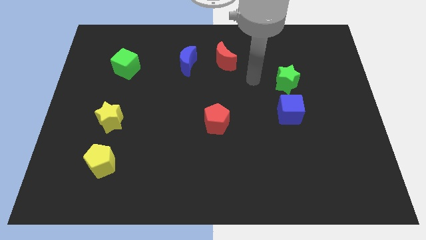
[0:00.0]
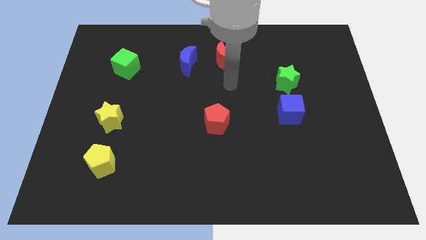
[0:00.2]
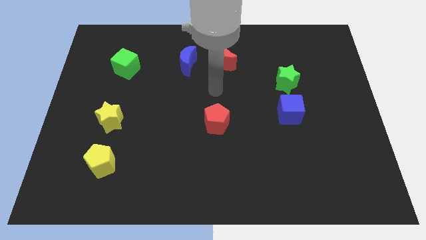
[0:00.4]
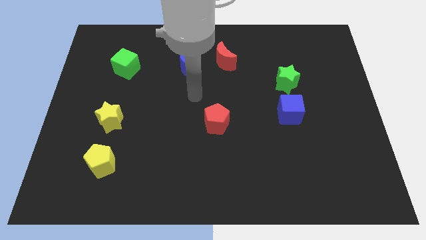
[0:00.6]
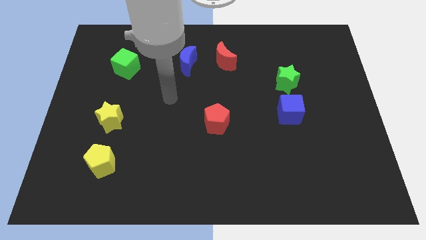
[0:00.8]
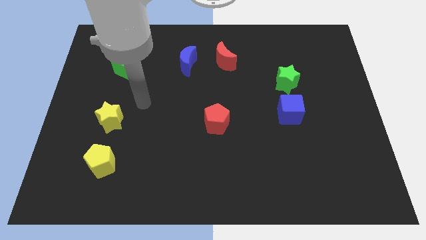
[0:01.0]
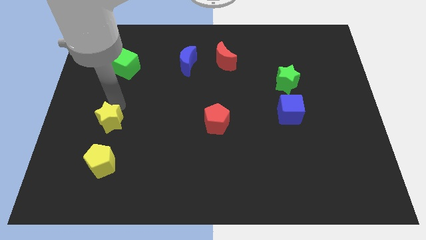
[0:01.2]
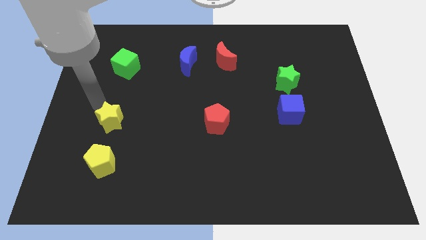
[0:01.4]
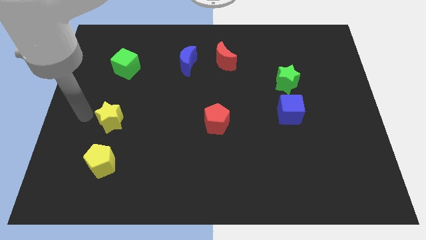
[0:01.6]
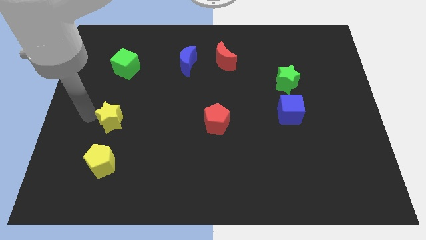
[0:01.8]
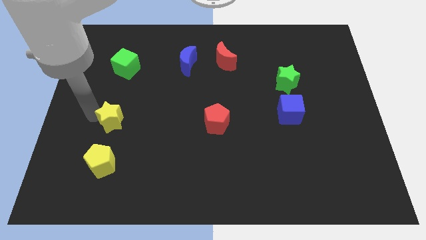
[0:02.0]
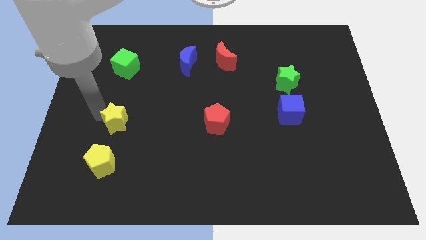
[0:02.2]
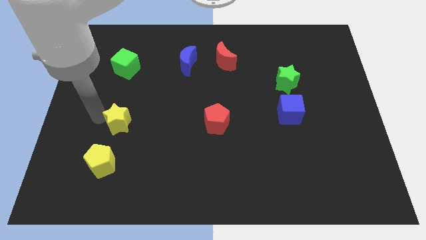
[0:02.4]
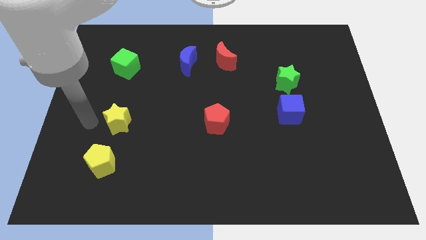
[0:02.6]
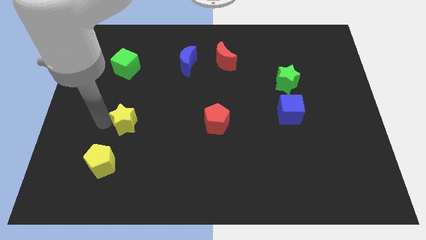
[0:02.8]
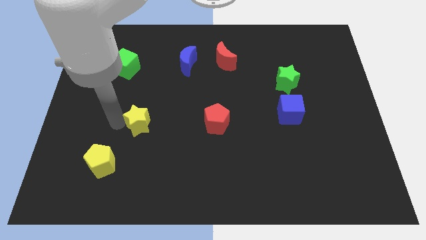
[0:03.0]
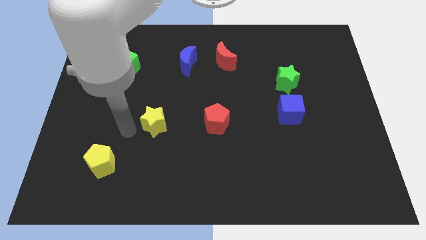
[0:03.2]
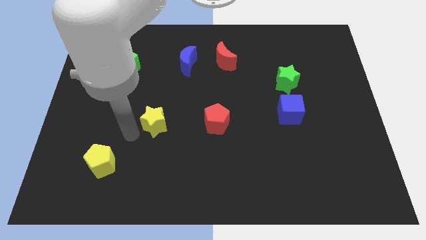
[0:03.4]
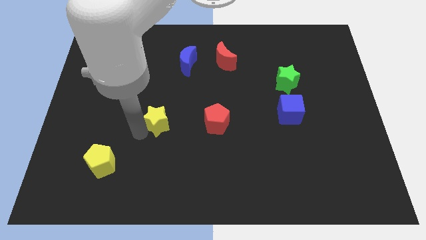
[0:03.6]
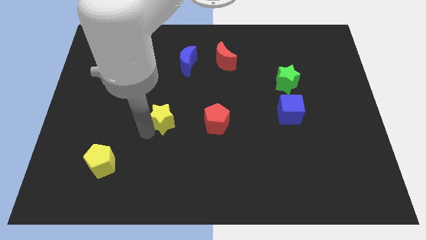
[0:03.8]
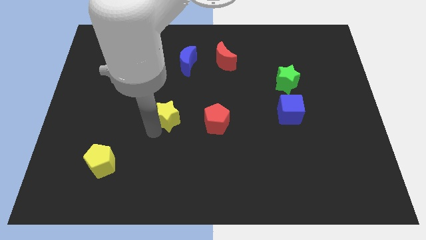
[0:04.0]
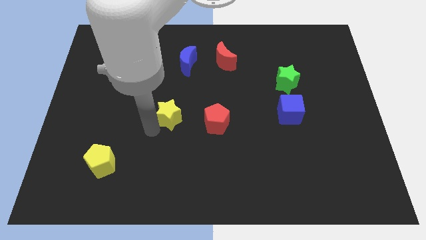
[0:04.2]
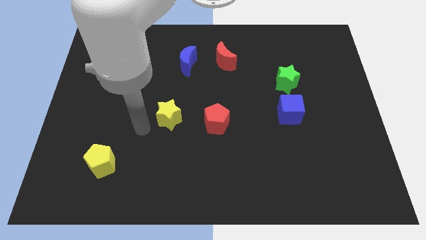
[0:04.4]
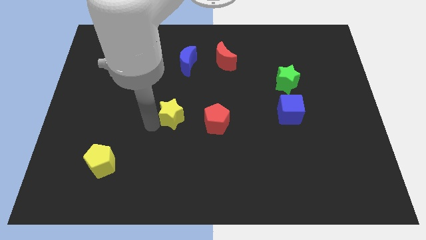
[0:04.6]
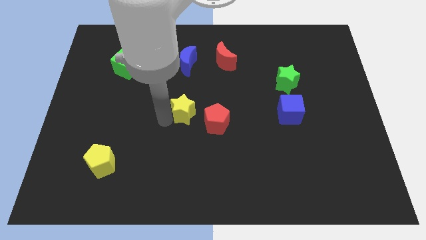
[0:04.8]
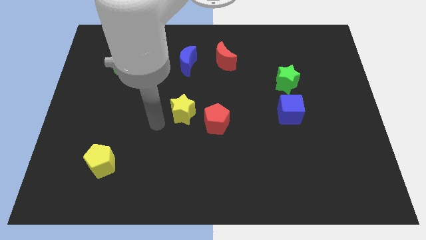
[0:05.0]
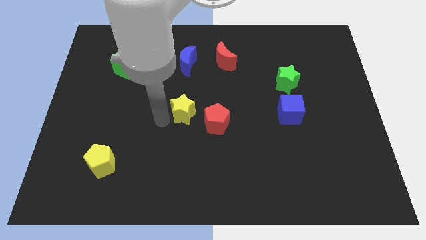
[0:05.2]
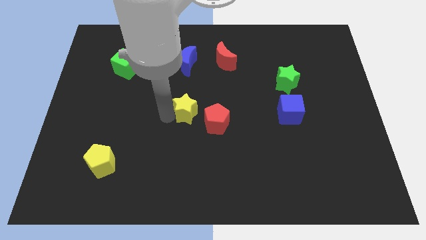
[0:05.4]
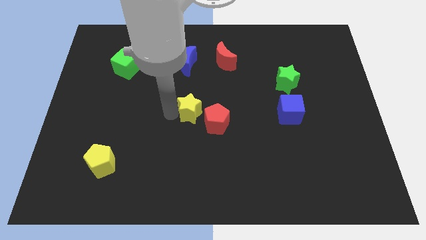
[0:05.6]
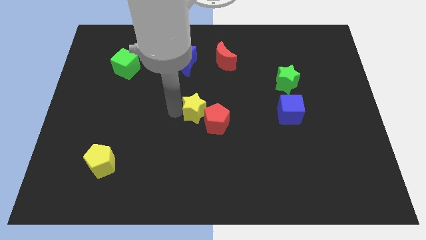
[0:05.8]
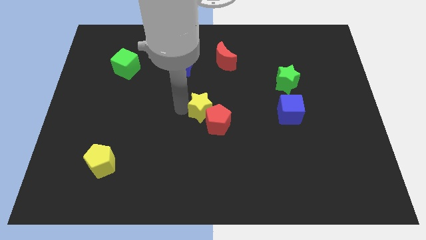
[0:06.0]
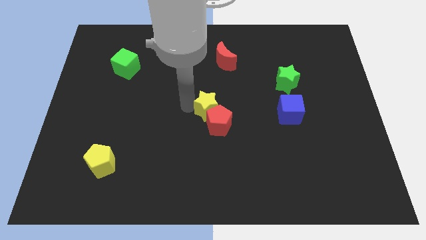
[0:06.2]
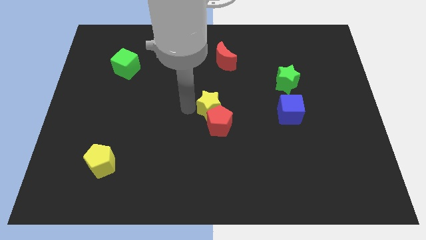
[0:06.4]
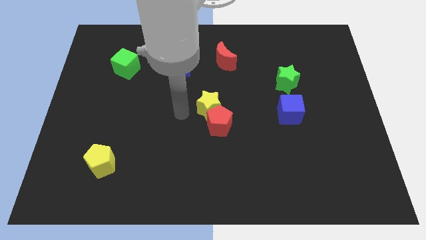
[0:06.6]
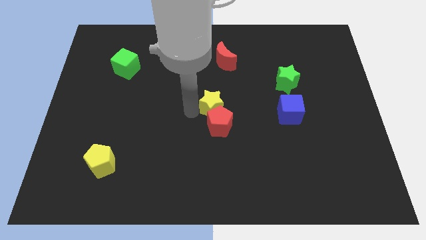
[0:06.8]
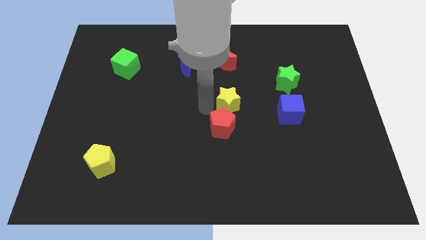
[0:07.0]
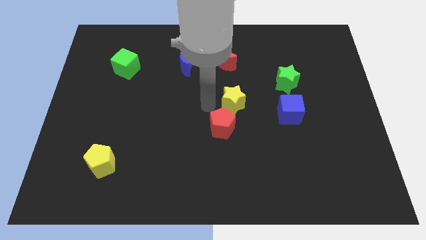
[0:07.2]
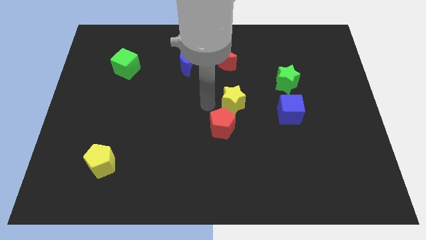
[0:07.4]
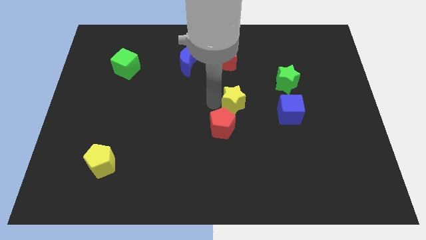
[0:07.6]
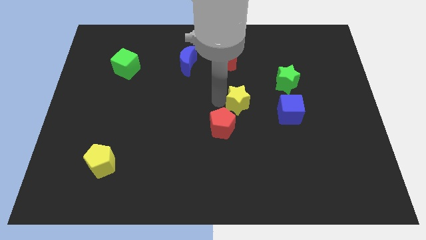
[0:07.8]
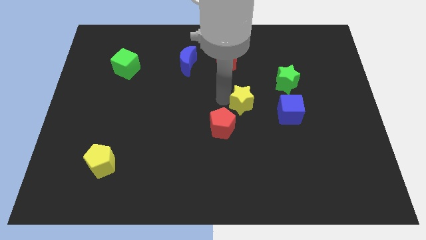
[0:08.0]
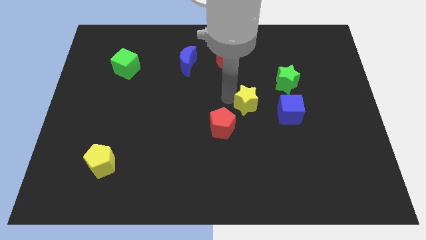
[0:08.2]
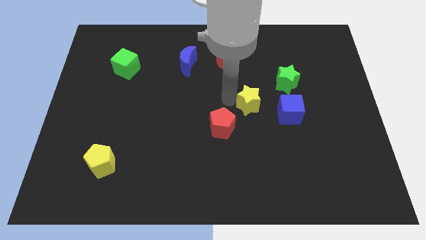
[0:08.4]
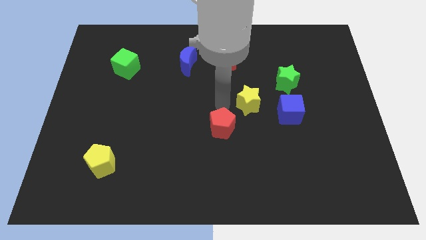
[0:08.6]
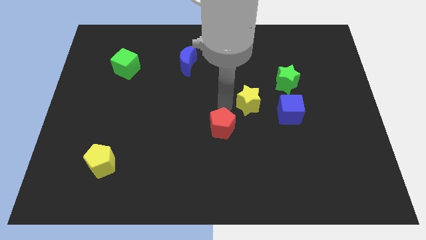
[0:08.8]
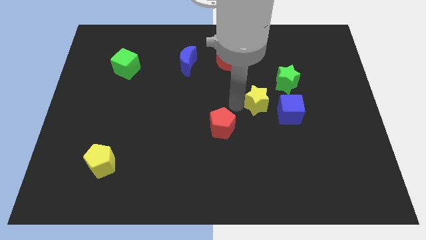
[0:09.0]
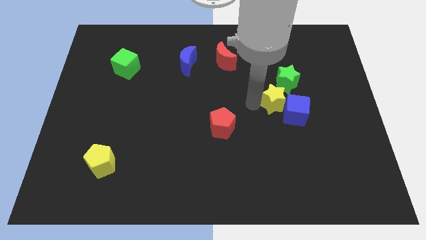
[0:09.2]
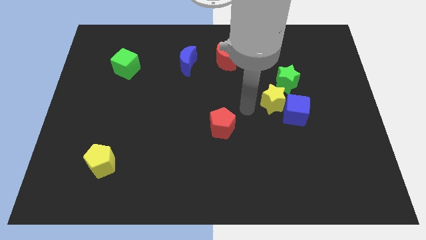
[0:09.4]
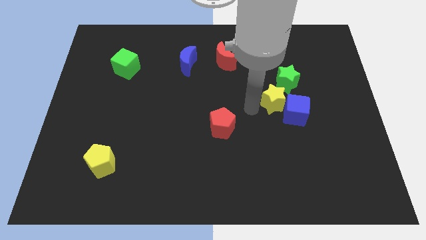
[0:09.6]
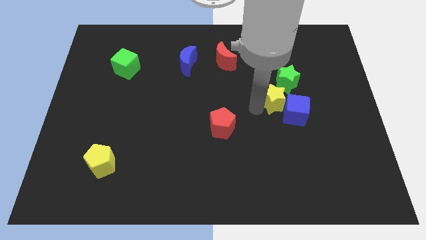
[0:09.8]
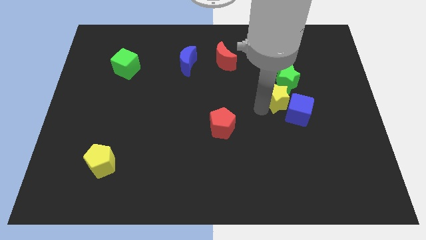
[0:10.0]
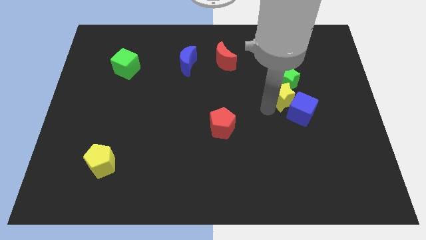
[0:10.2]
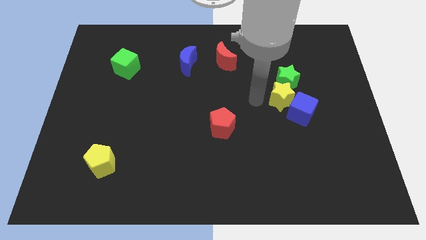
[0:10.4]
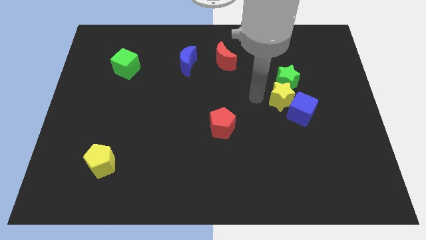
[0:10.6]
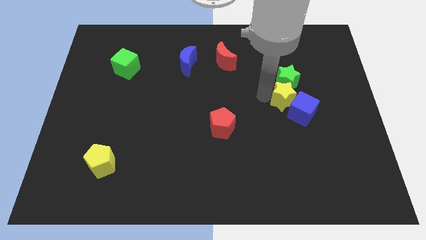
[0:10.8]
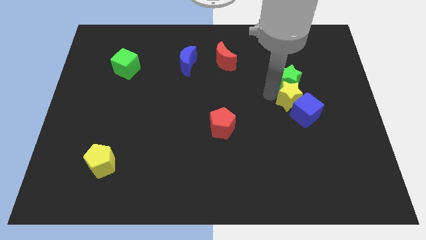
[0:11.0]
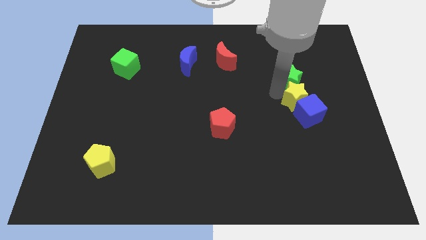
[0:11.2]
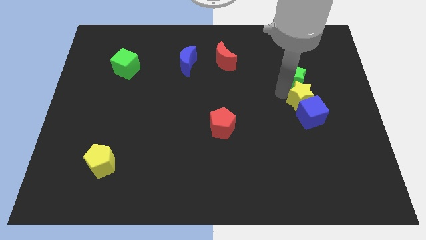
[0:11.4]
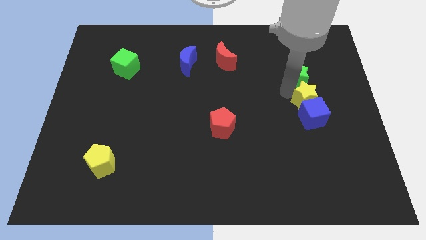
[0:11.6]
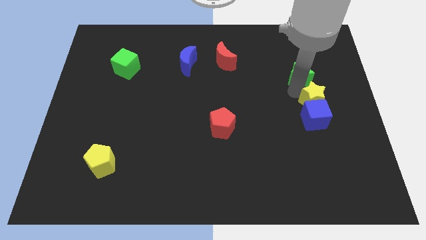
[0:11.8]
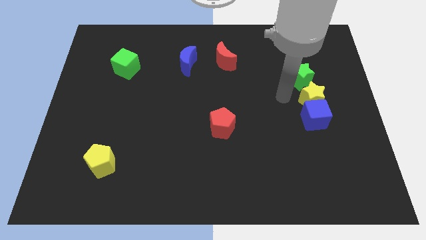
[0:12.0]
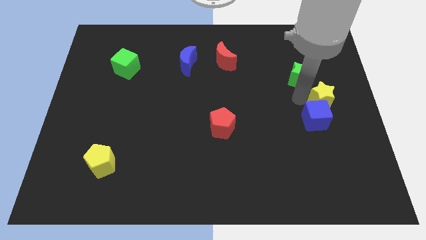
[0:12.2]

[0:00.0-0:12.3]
slide the yellow star to the center right

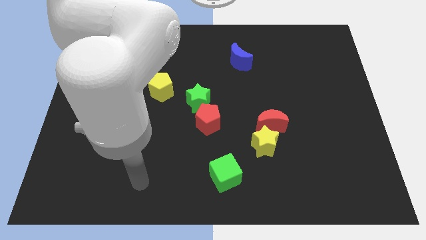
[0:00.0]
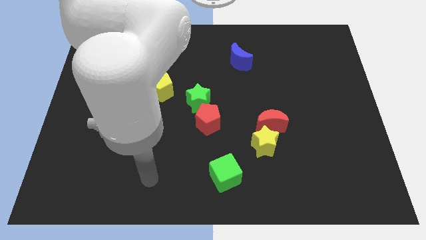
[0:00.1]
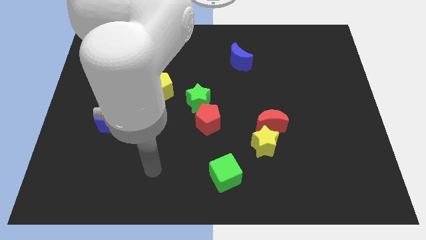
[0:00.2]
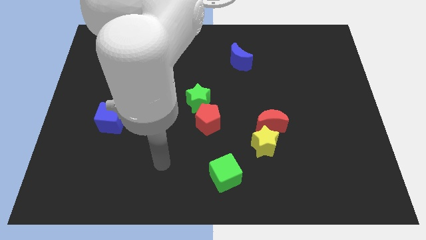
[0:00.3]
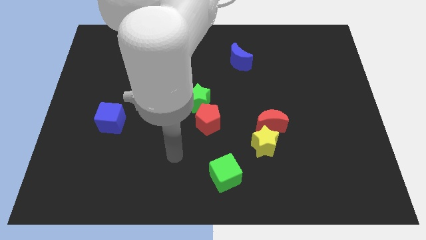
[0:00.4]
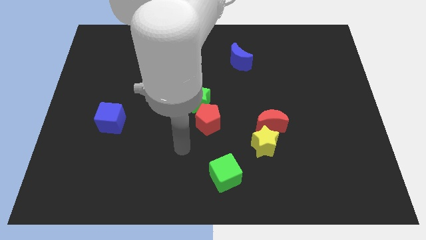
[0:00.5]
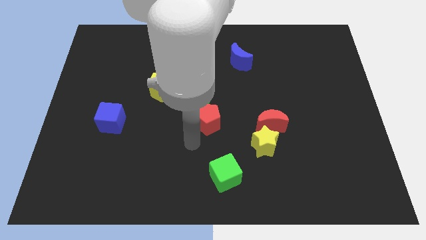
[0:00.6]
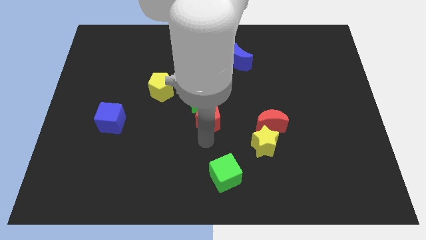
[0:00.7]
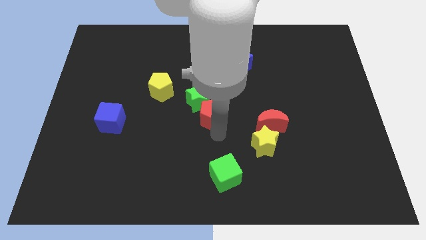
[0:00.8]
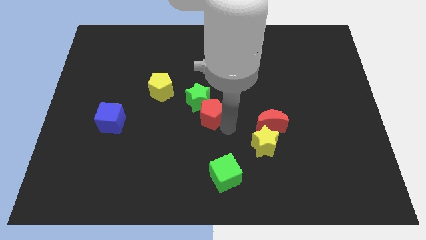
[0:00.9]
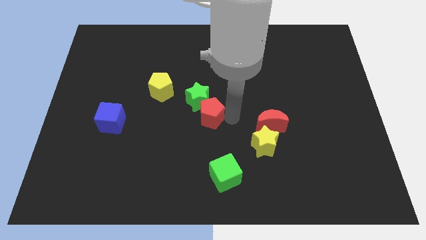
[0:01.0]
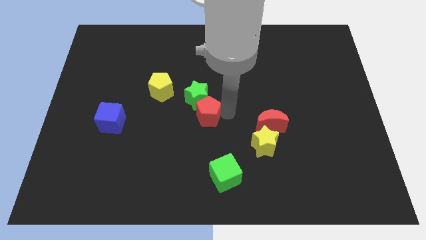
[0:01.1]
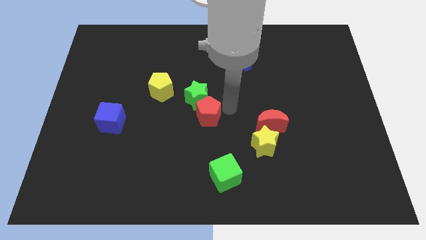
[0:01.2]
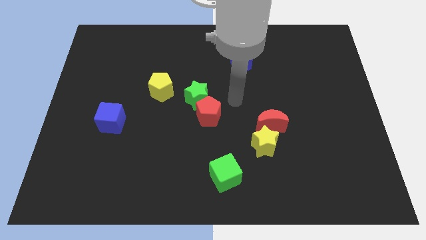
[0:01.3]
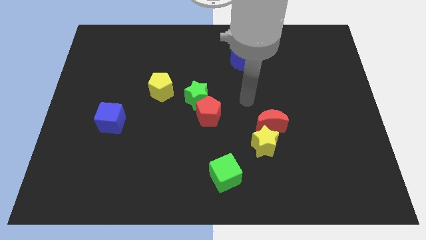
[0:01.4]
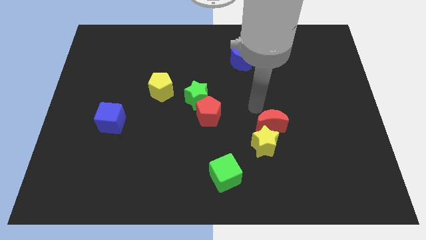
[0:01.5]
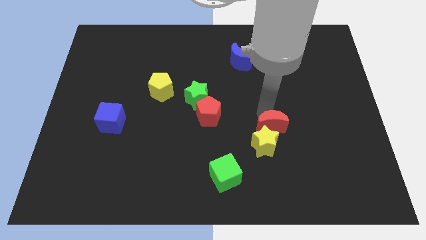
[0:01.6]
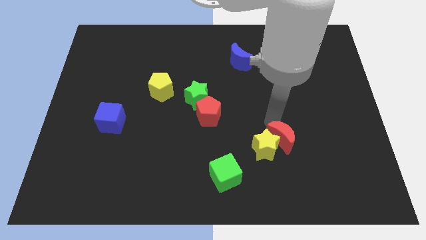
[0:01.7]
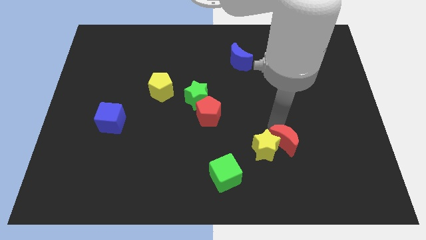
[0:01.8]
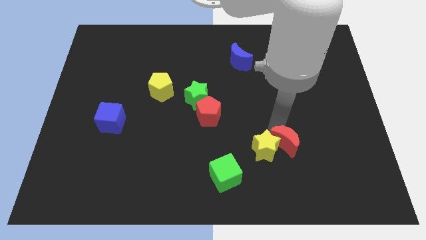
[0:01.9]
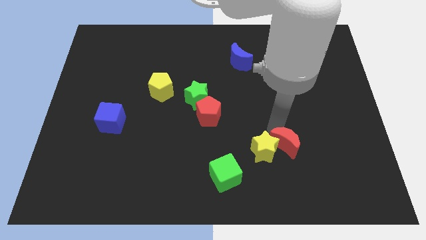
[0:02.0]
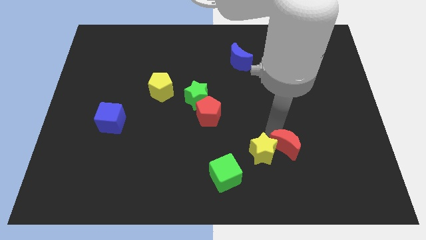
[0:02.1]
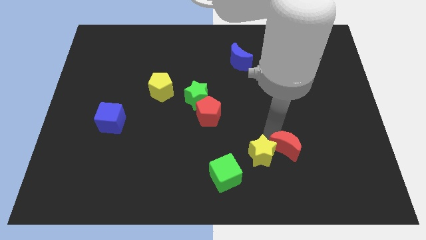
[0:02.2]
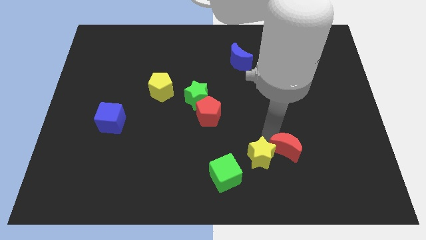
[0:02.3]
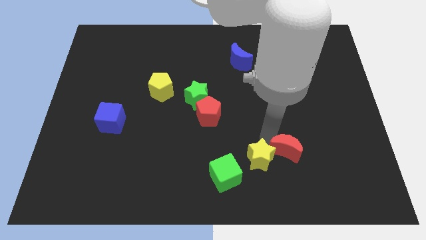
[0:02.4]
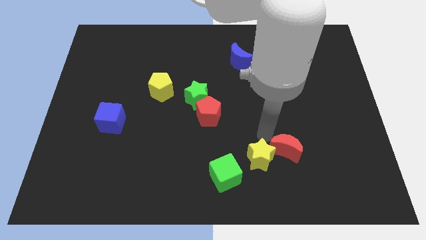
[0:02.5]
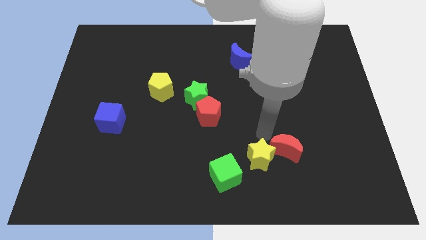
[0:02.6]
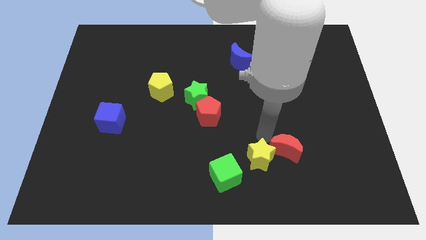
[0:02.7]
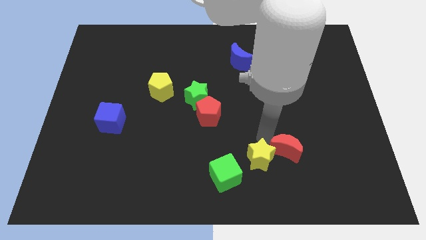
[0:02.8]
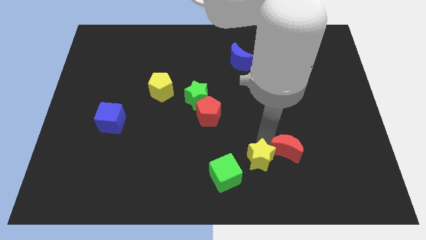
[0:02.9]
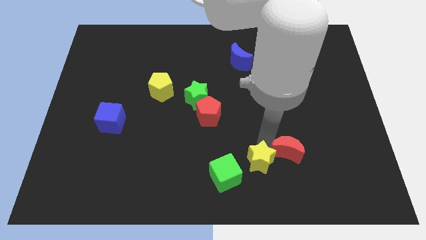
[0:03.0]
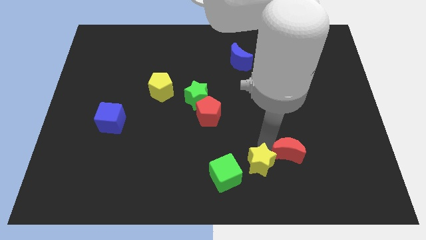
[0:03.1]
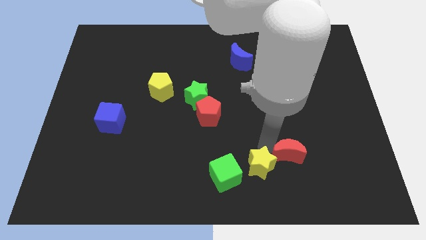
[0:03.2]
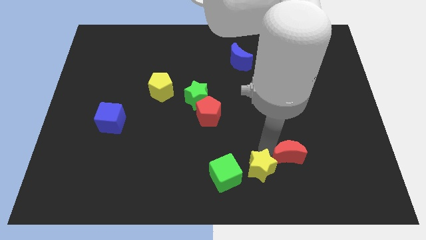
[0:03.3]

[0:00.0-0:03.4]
move the yellow star to the bottom side
